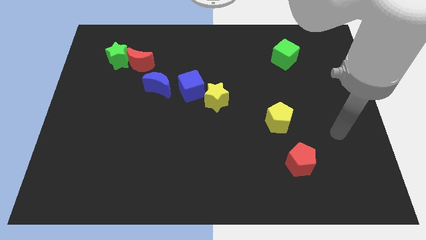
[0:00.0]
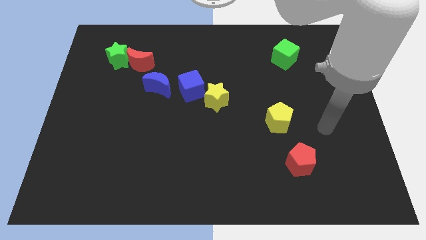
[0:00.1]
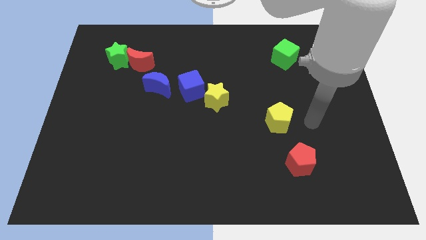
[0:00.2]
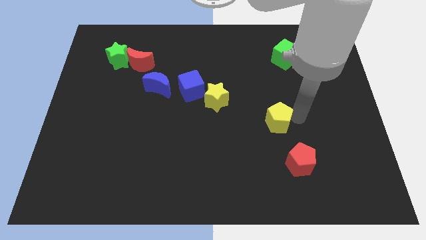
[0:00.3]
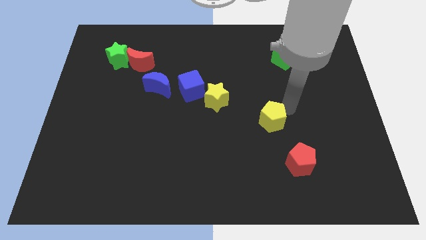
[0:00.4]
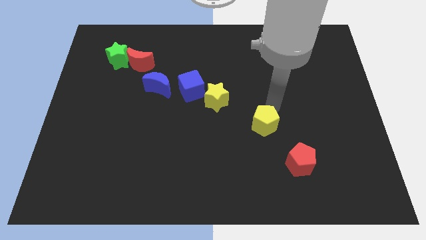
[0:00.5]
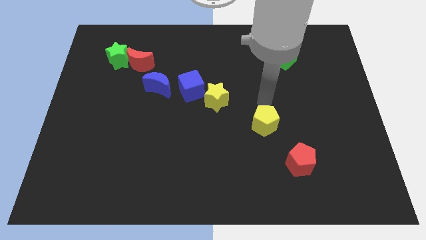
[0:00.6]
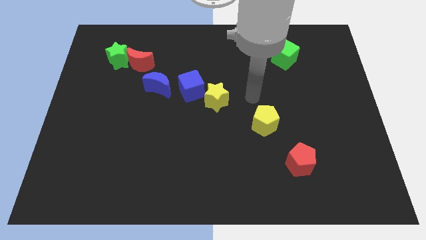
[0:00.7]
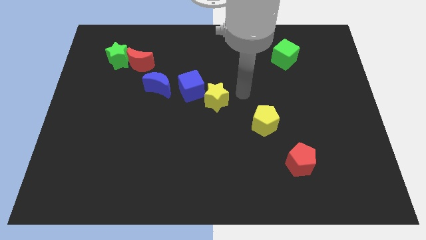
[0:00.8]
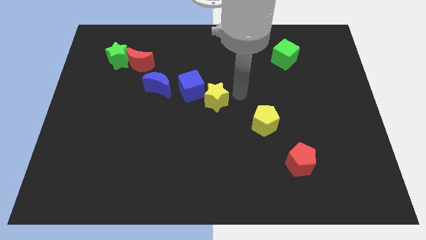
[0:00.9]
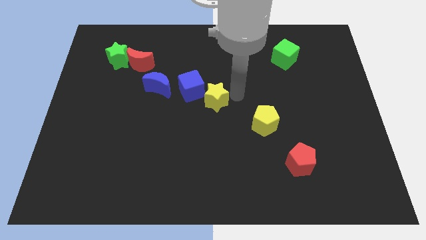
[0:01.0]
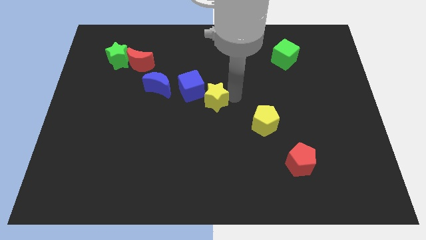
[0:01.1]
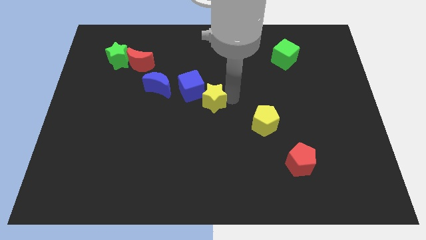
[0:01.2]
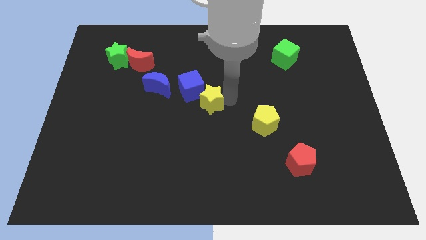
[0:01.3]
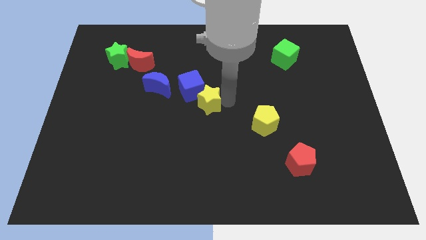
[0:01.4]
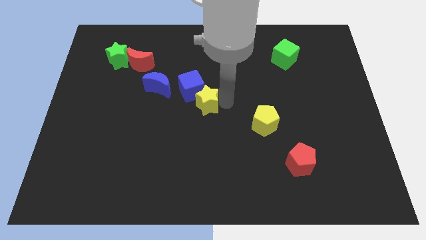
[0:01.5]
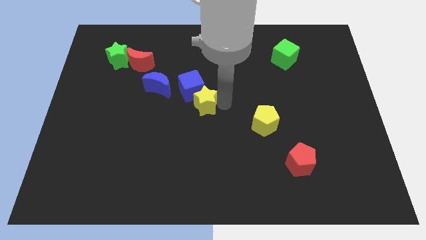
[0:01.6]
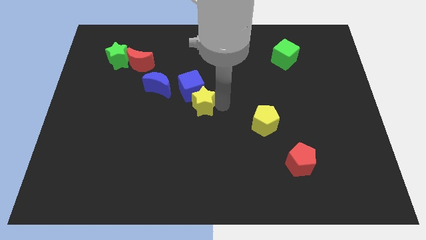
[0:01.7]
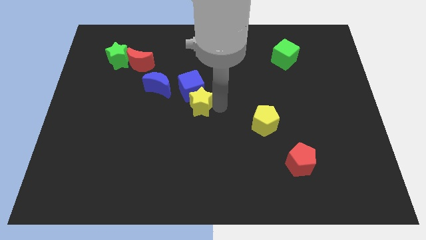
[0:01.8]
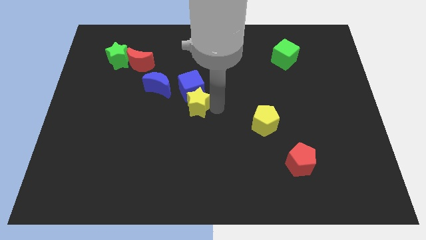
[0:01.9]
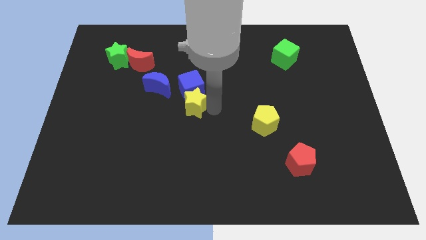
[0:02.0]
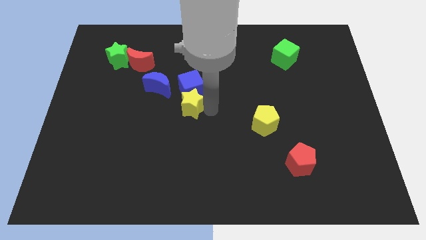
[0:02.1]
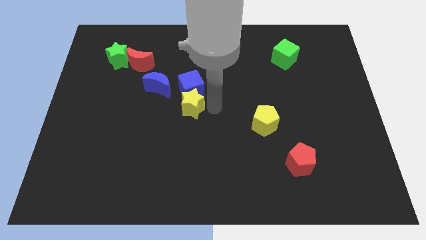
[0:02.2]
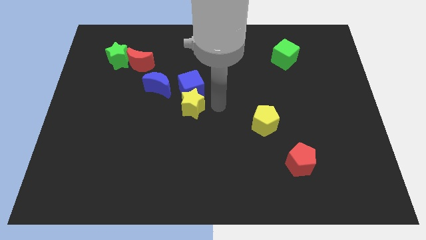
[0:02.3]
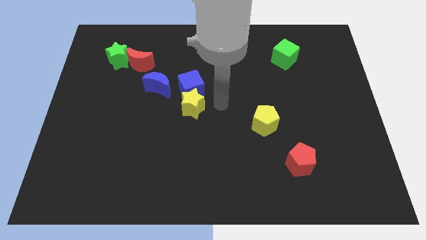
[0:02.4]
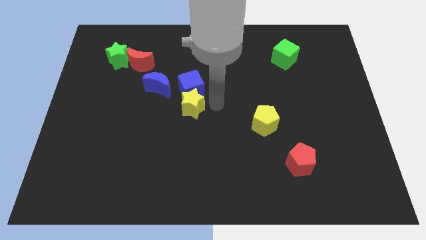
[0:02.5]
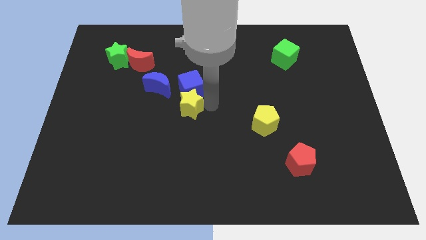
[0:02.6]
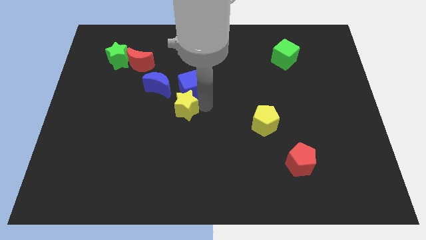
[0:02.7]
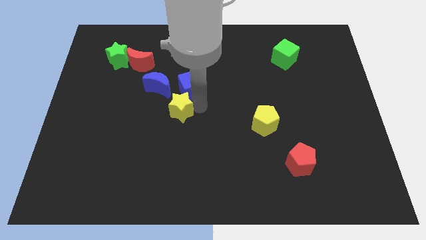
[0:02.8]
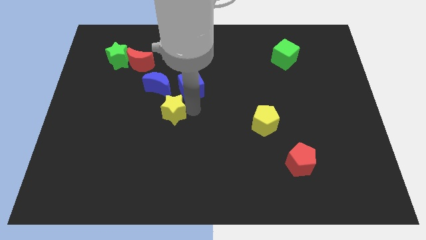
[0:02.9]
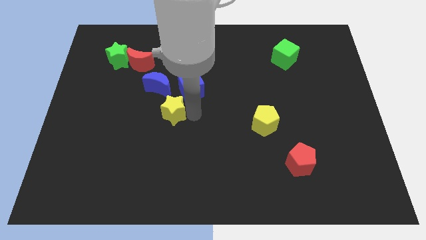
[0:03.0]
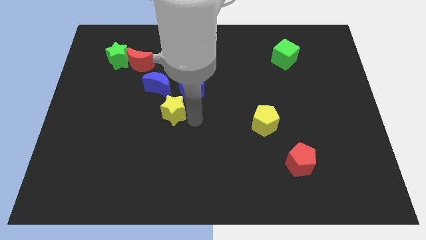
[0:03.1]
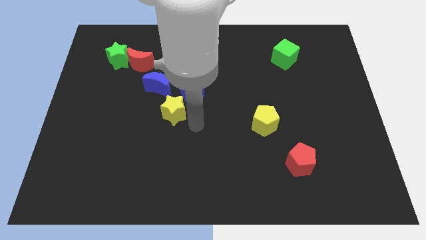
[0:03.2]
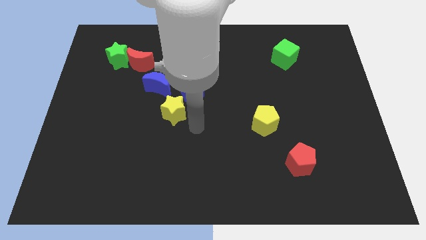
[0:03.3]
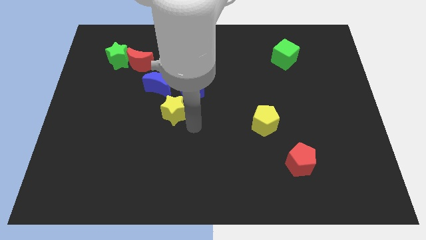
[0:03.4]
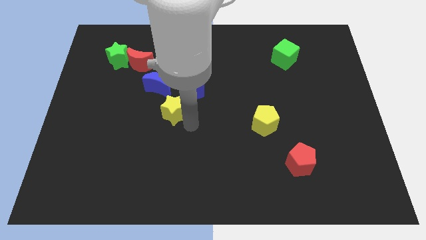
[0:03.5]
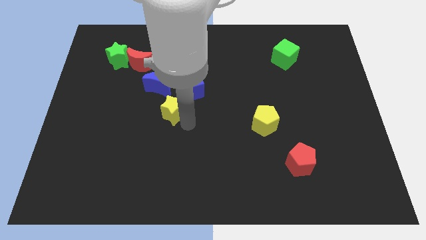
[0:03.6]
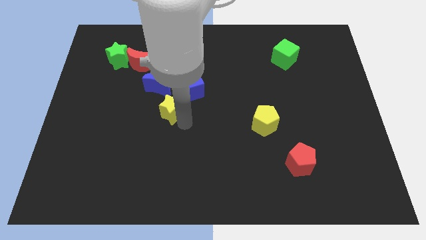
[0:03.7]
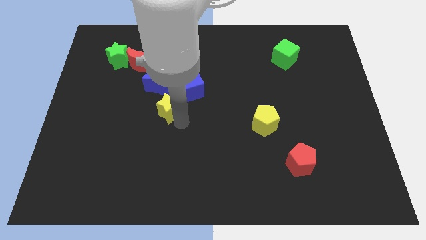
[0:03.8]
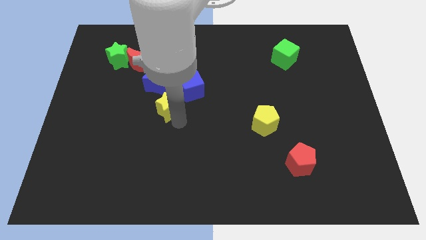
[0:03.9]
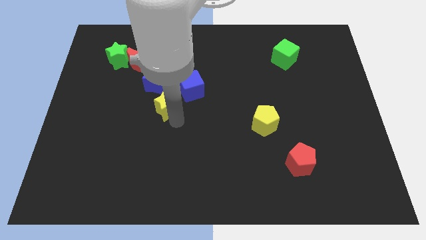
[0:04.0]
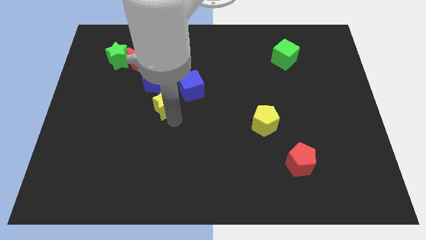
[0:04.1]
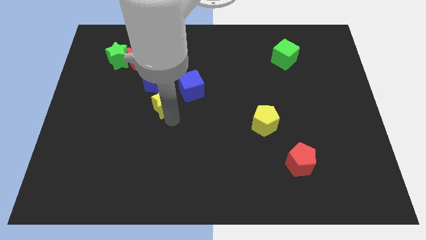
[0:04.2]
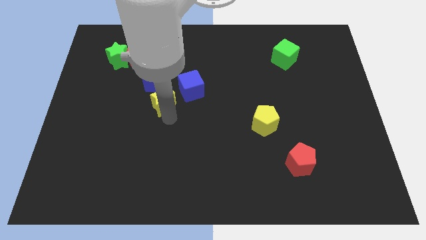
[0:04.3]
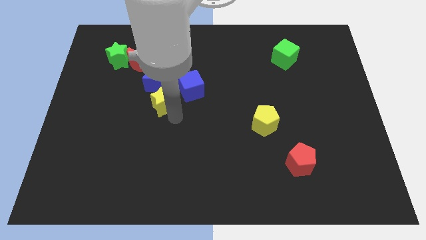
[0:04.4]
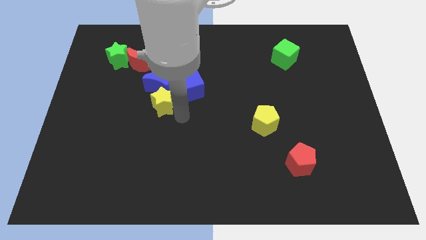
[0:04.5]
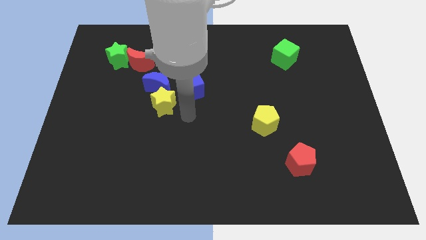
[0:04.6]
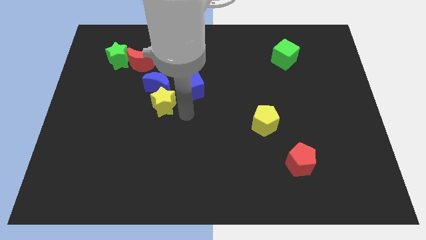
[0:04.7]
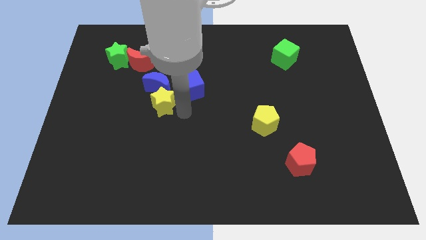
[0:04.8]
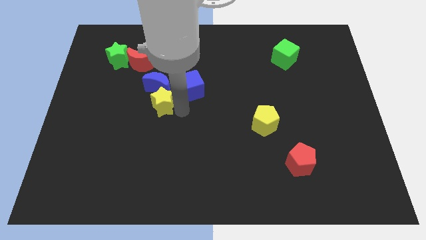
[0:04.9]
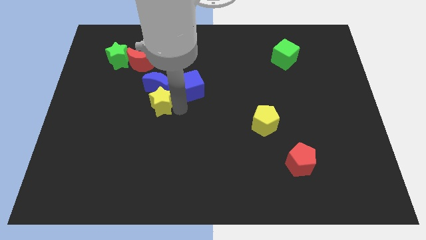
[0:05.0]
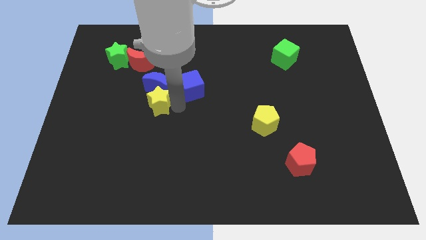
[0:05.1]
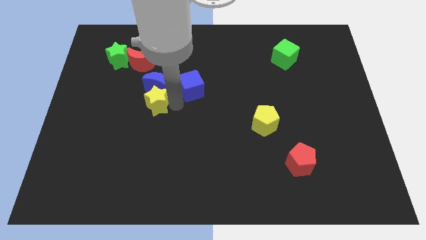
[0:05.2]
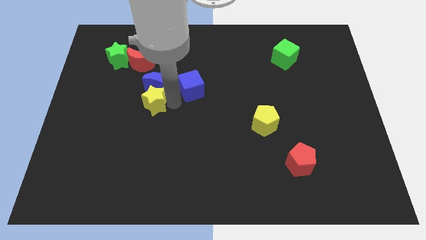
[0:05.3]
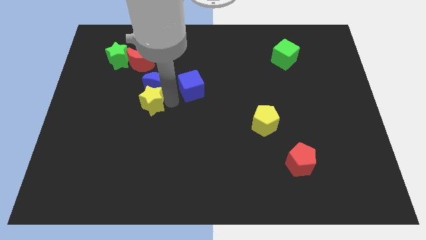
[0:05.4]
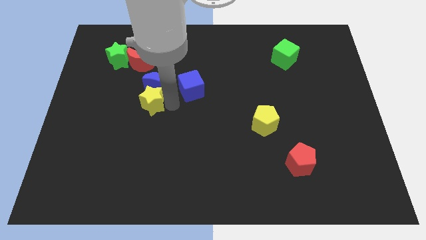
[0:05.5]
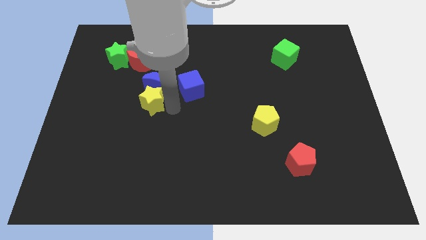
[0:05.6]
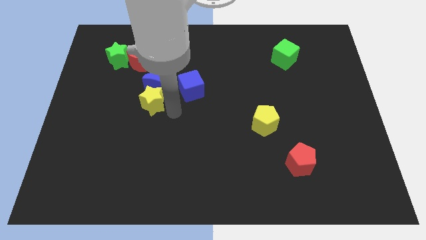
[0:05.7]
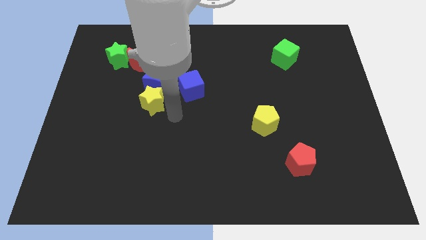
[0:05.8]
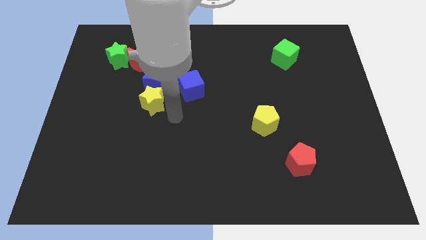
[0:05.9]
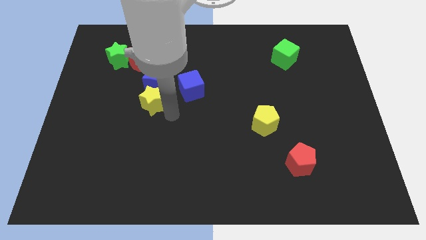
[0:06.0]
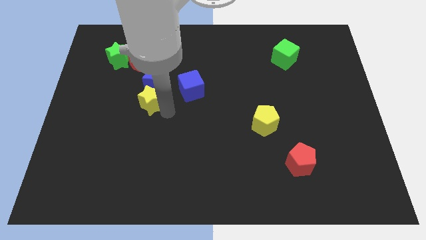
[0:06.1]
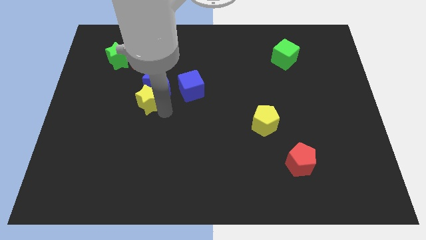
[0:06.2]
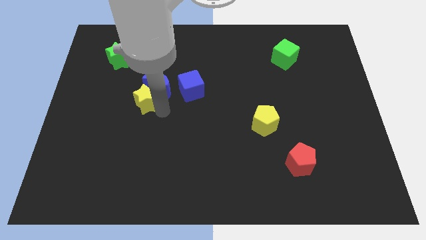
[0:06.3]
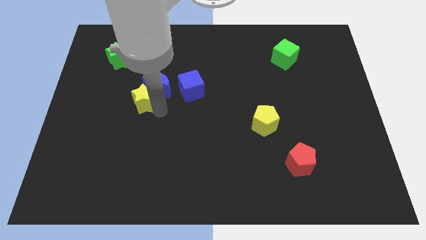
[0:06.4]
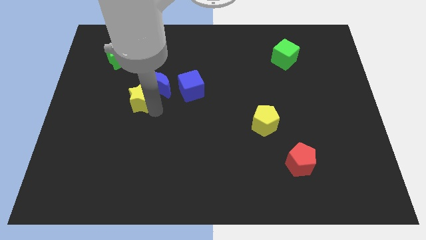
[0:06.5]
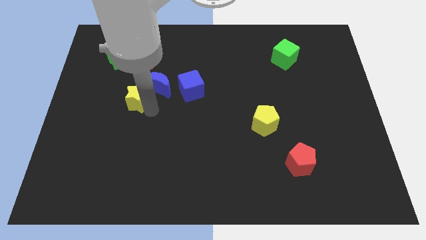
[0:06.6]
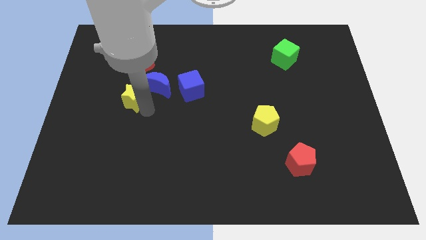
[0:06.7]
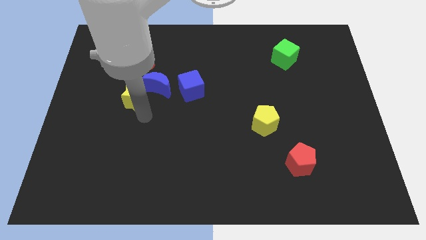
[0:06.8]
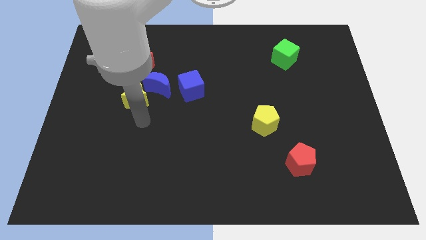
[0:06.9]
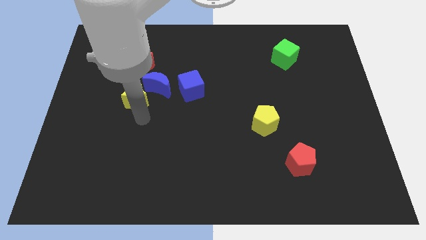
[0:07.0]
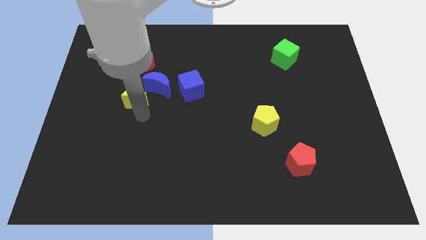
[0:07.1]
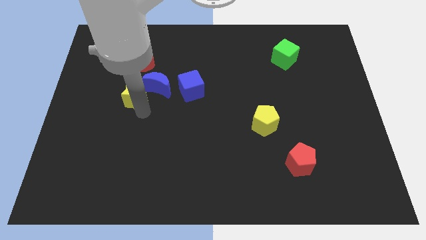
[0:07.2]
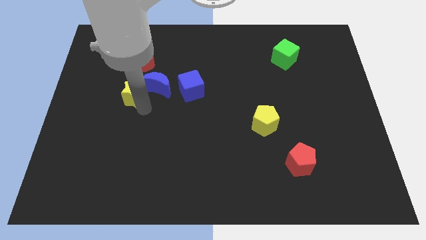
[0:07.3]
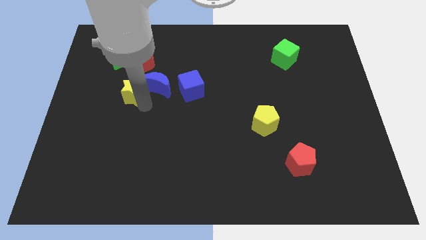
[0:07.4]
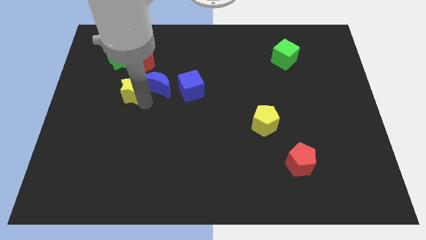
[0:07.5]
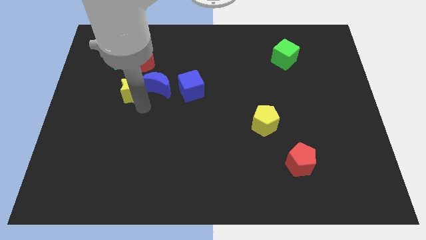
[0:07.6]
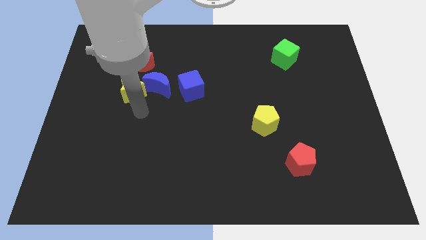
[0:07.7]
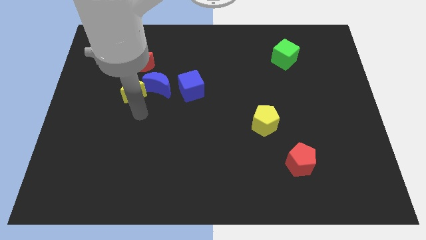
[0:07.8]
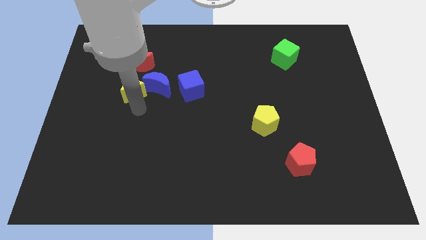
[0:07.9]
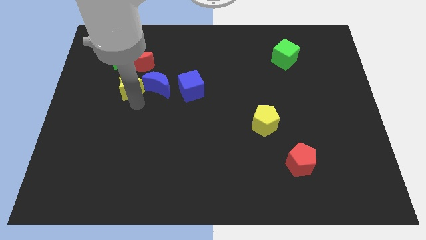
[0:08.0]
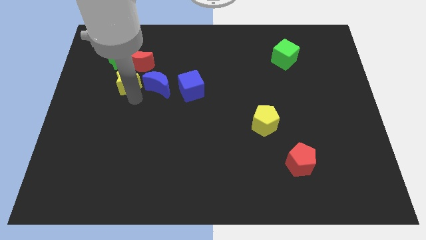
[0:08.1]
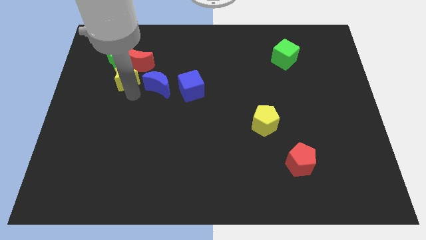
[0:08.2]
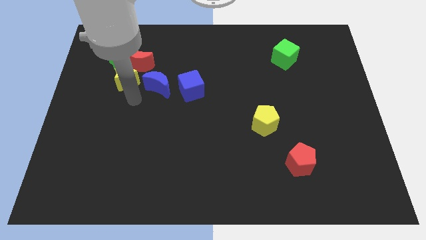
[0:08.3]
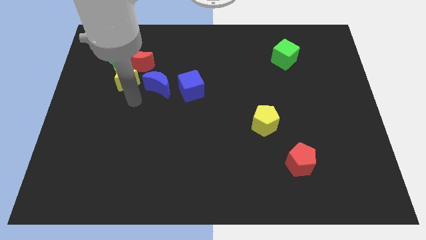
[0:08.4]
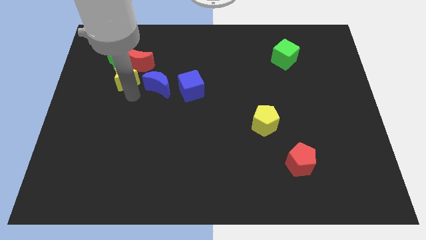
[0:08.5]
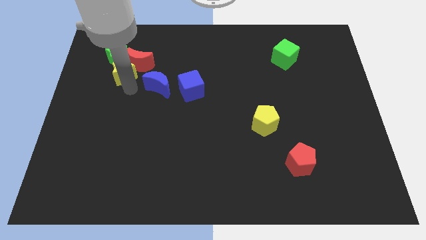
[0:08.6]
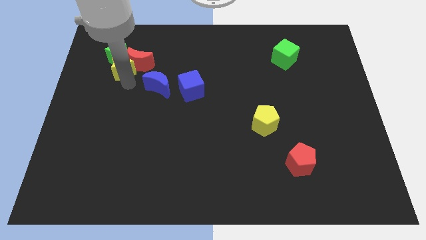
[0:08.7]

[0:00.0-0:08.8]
move the yellow star to the green star
